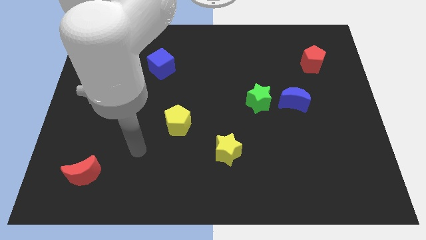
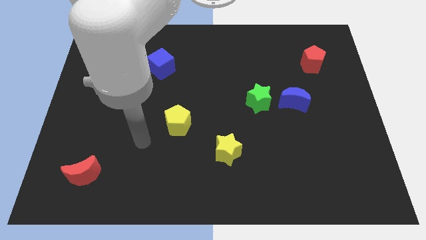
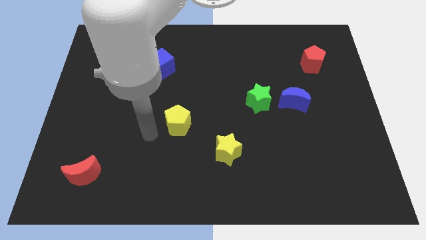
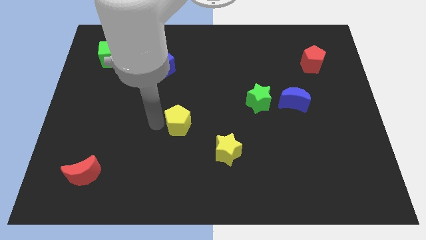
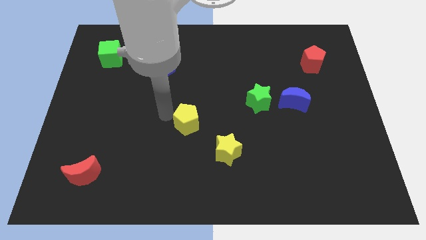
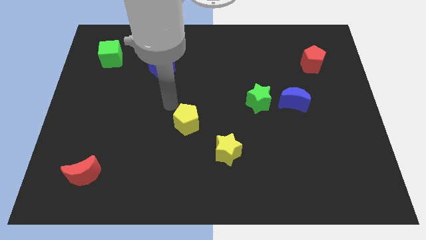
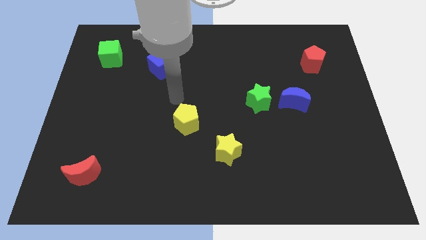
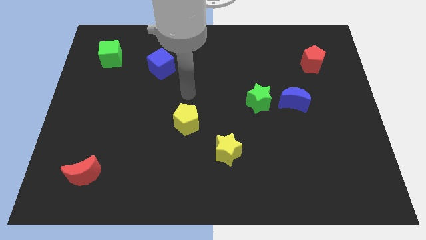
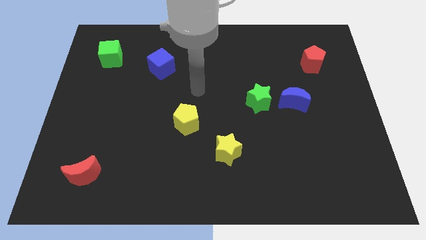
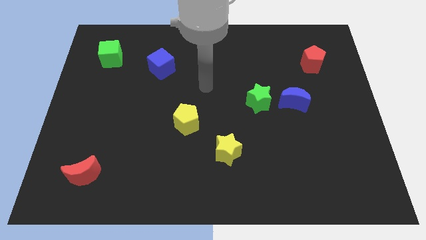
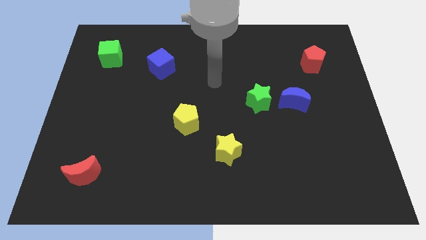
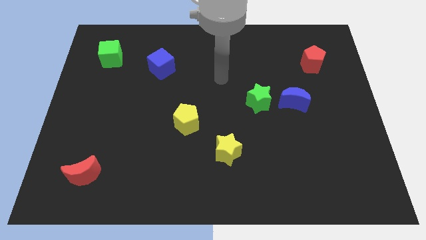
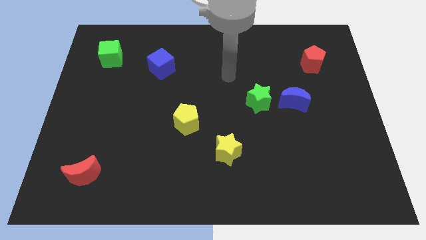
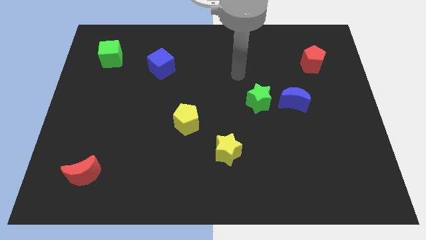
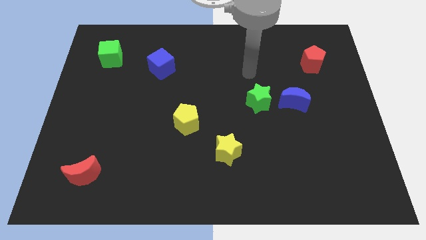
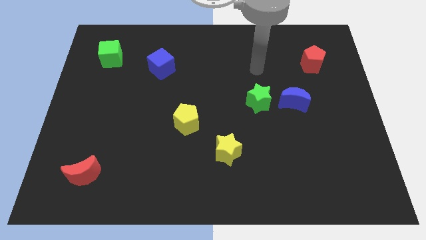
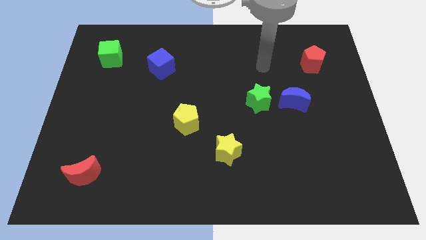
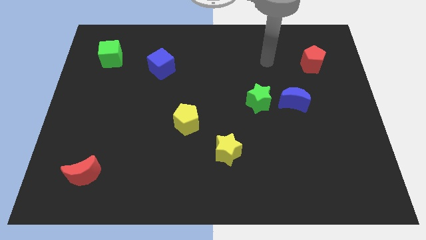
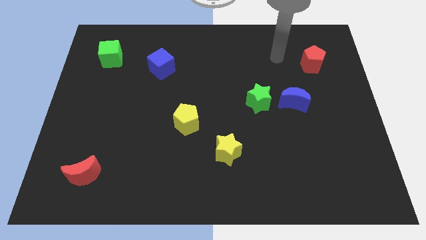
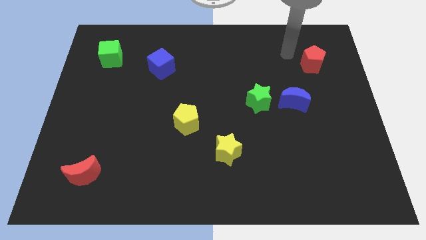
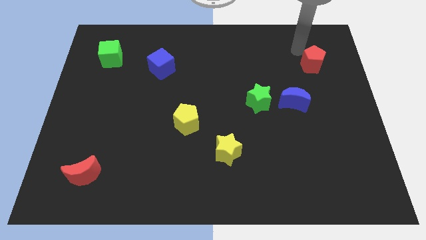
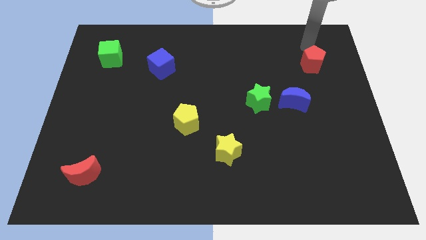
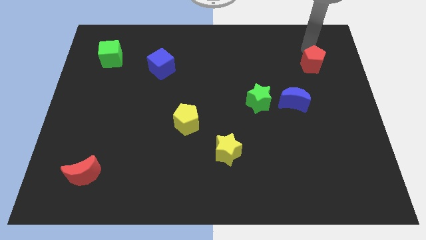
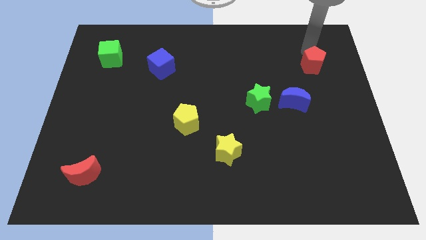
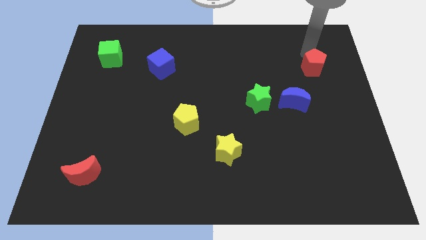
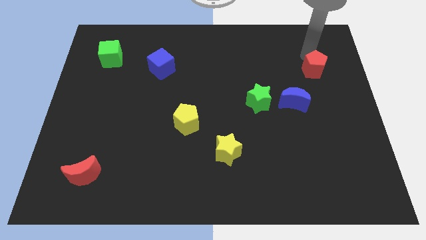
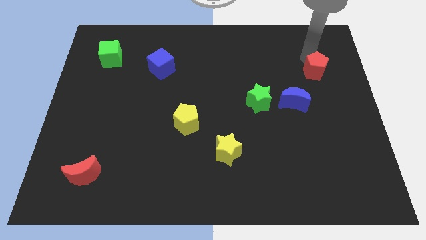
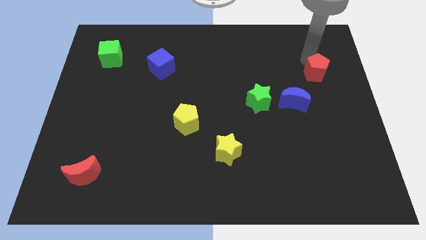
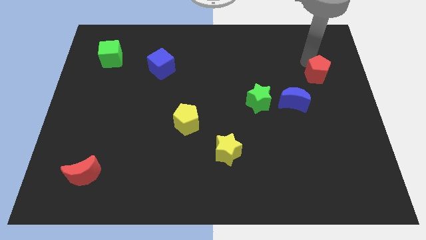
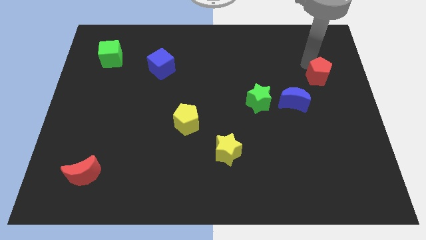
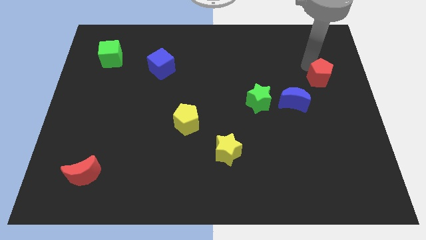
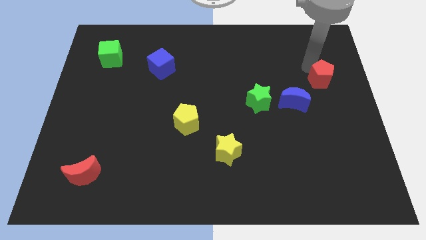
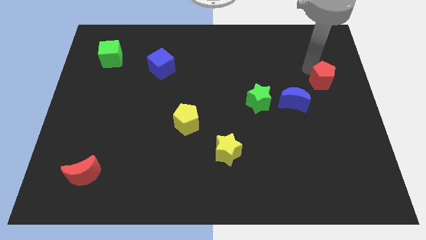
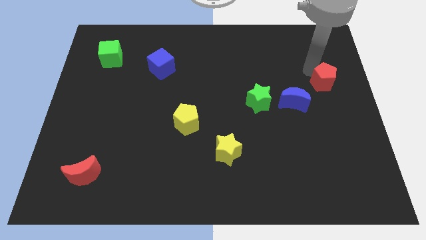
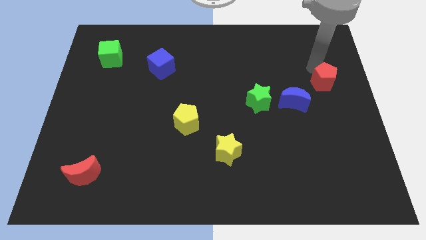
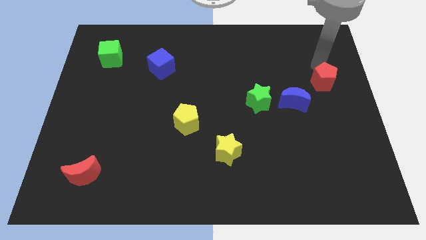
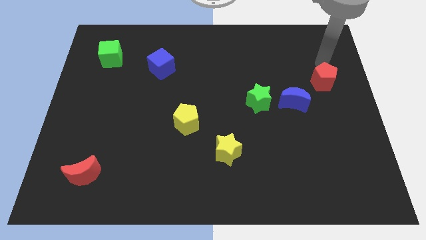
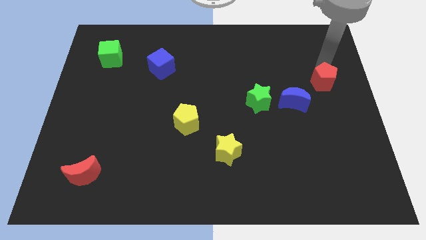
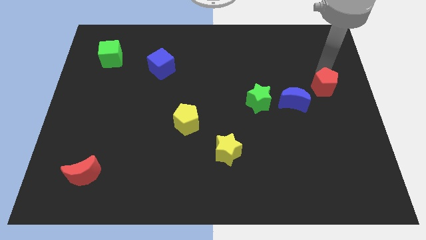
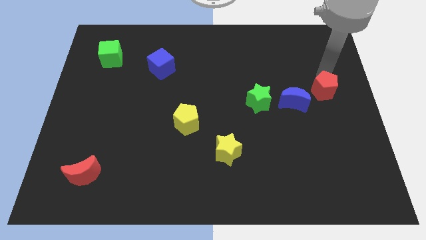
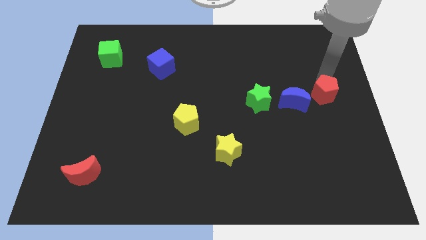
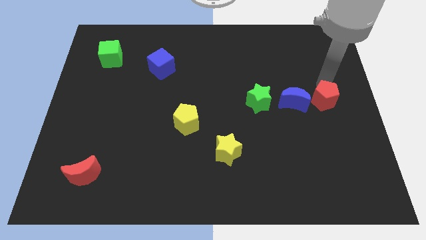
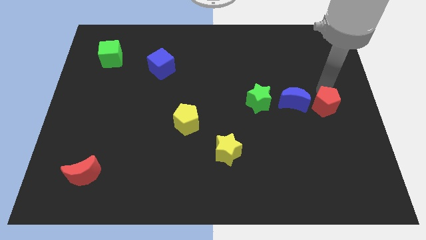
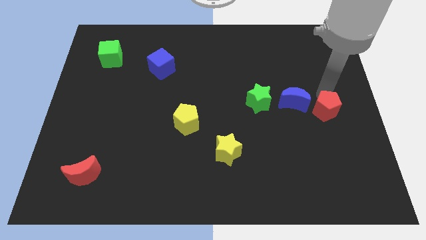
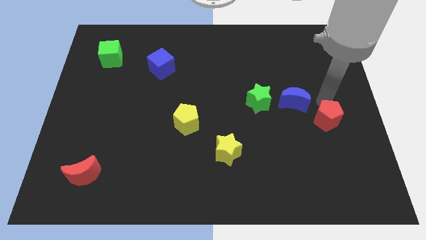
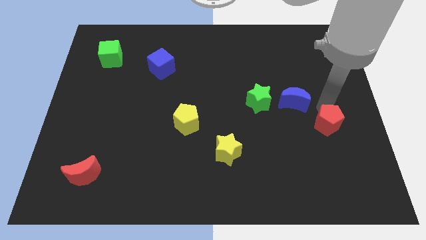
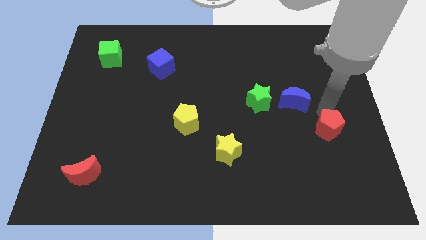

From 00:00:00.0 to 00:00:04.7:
push the red pentagon downwards

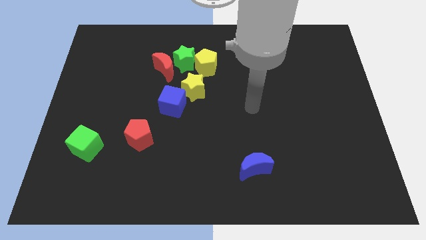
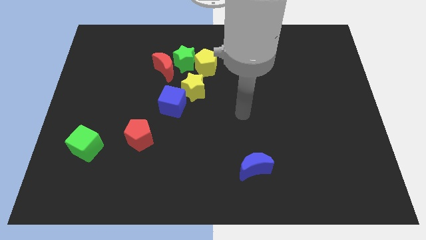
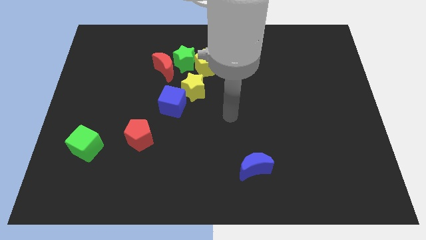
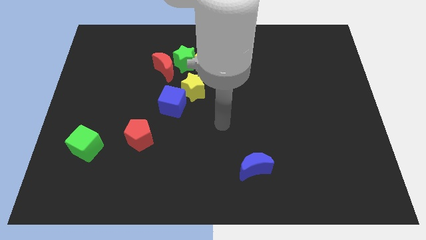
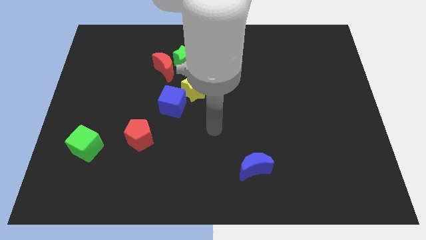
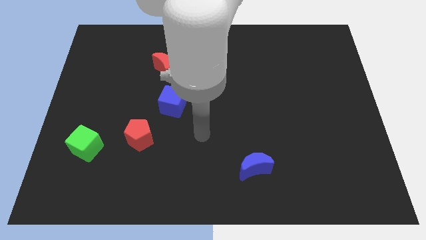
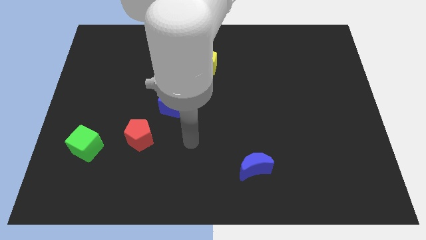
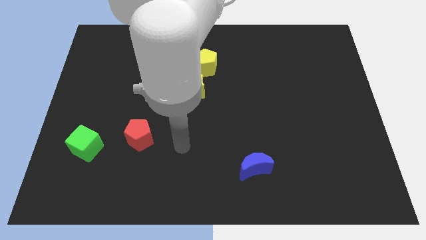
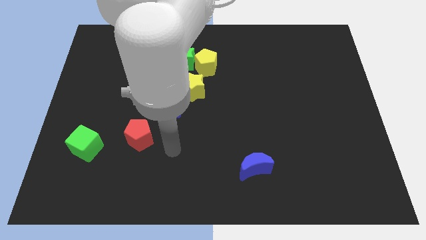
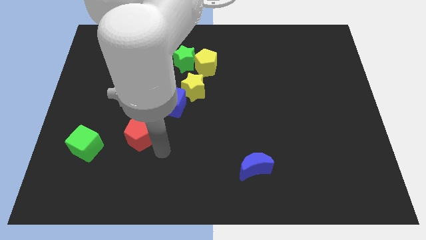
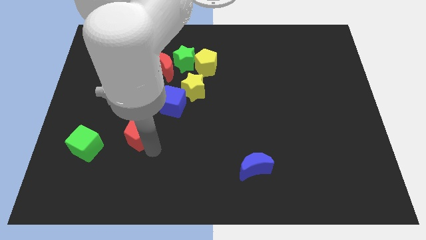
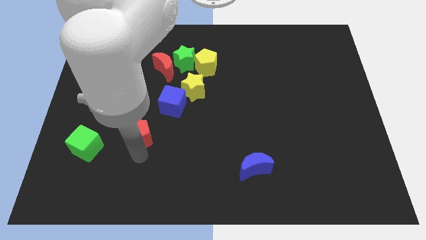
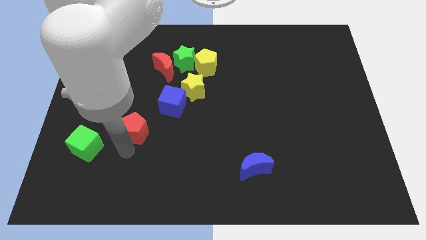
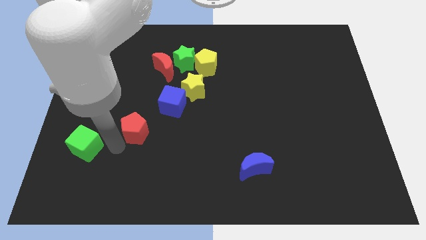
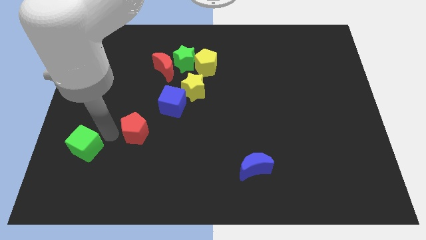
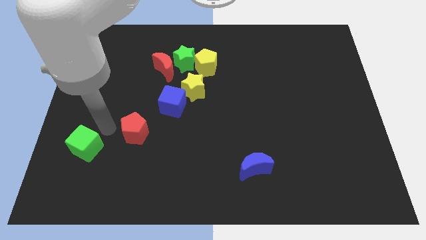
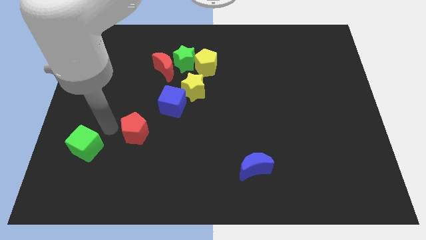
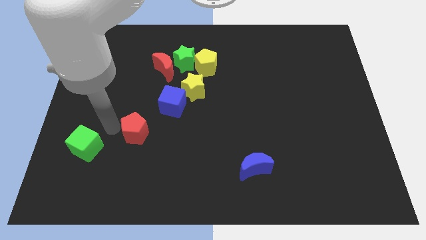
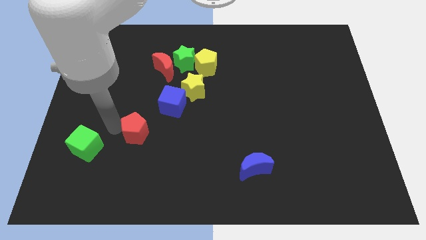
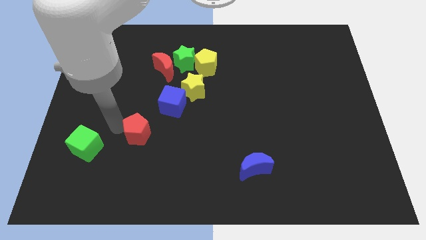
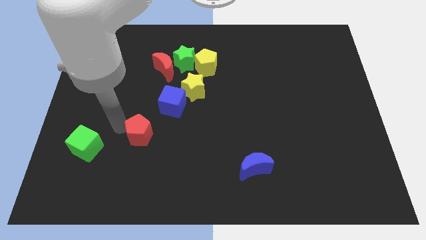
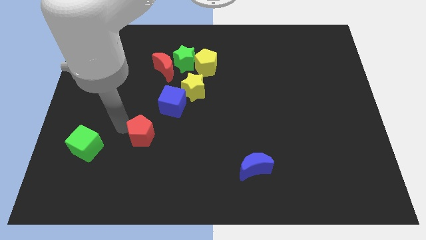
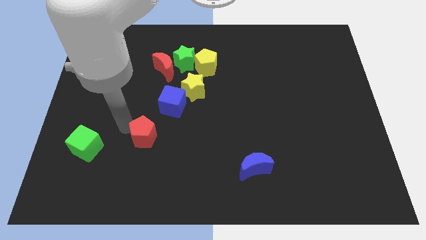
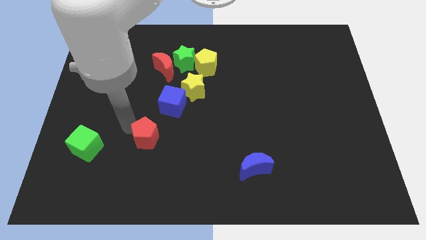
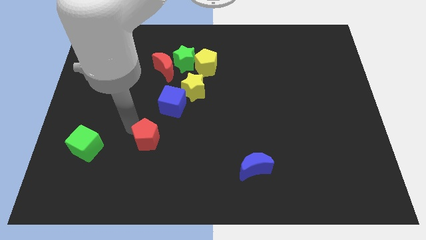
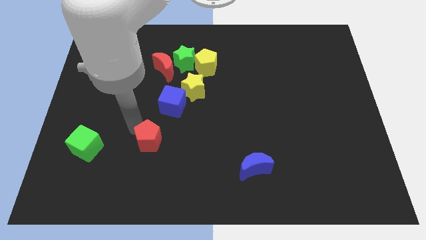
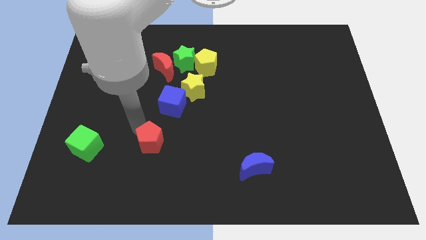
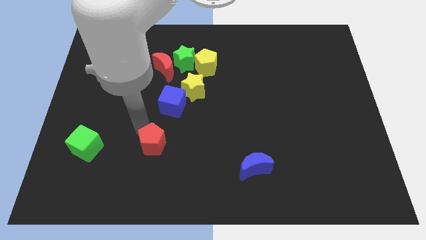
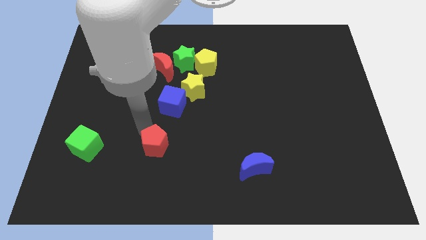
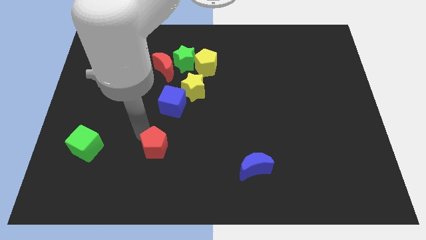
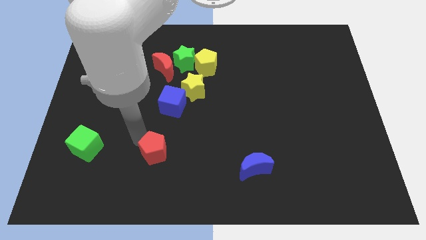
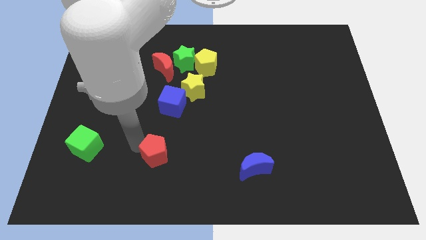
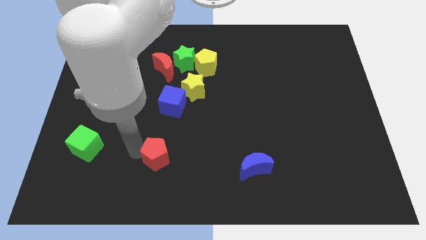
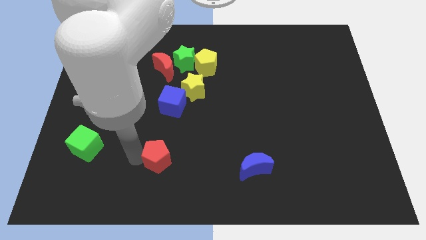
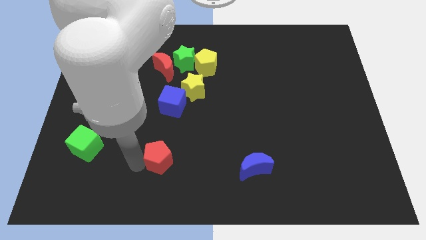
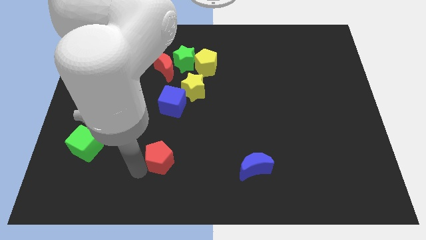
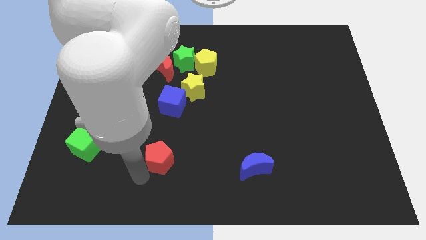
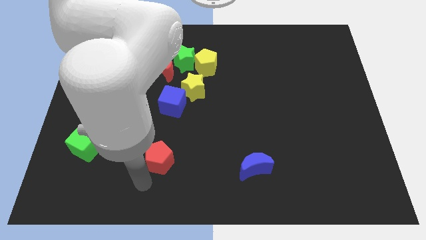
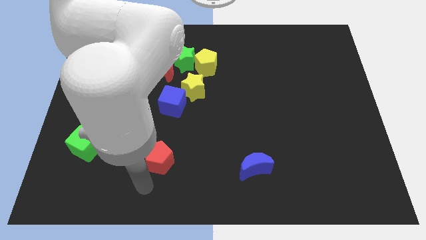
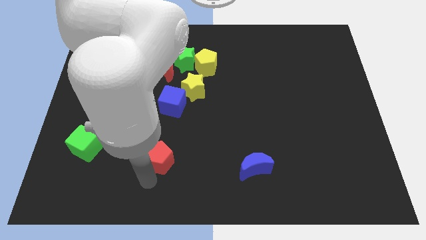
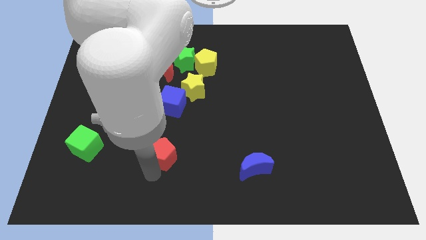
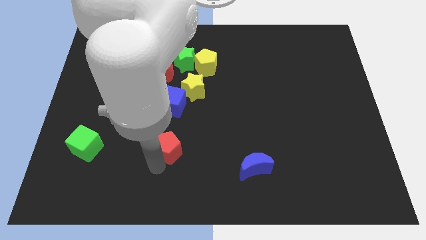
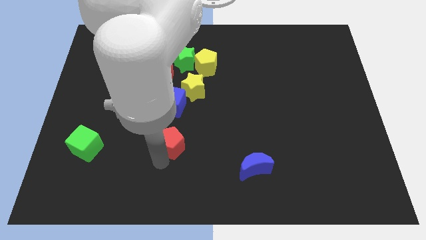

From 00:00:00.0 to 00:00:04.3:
move the red pentagon right a bit
